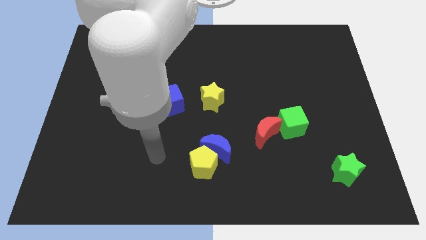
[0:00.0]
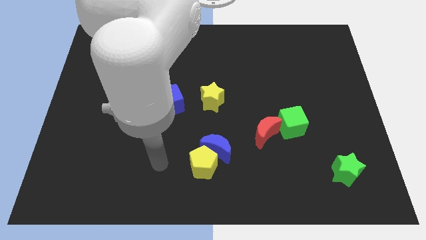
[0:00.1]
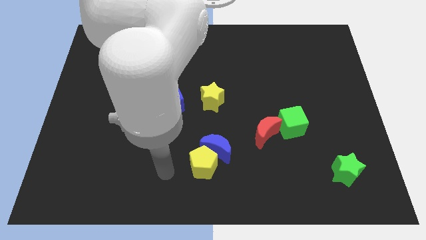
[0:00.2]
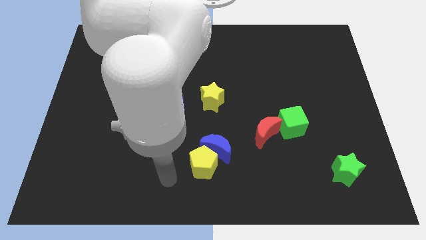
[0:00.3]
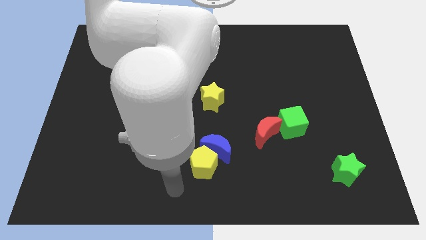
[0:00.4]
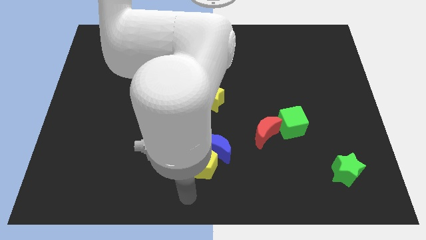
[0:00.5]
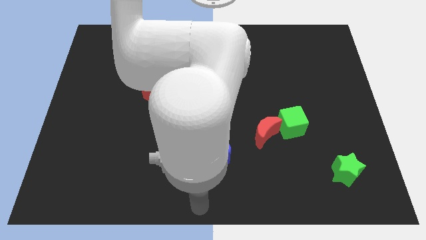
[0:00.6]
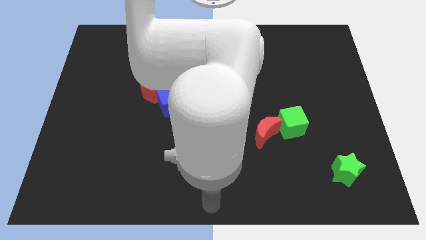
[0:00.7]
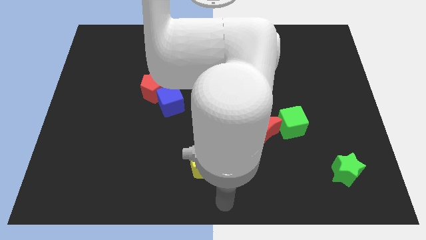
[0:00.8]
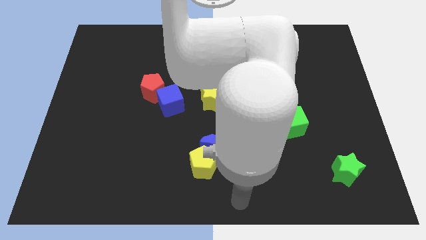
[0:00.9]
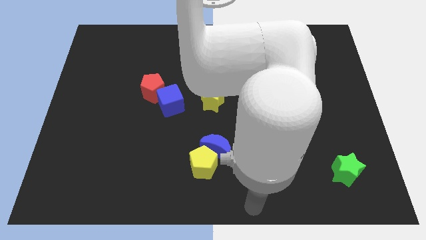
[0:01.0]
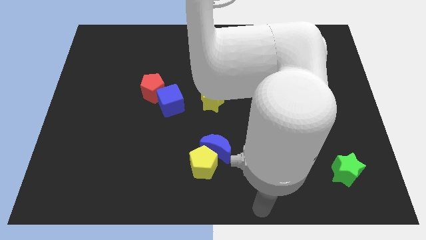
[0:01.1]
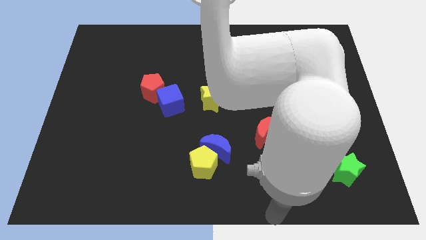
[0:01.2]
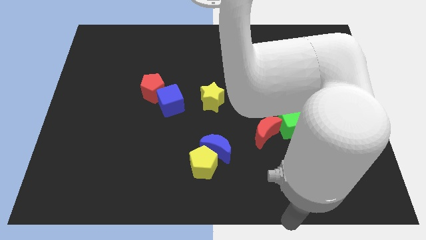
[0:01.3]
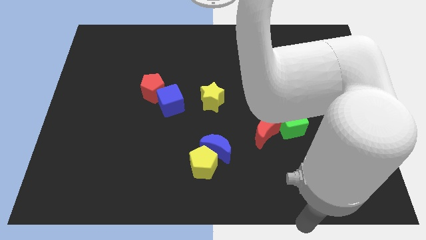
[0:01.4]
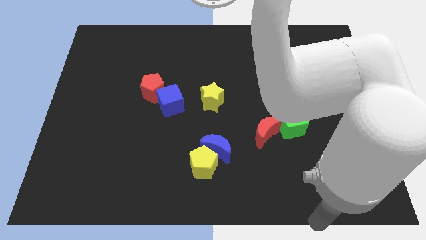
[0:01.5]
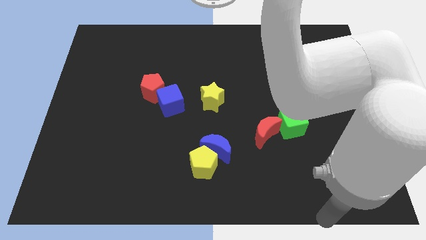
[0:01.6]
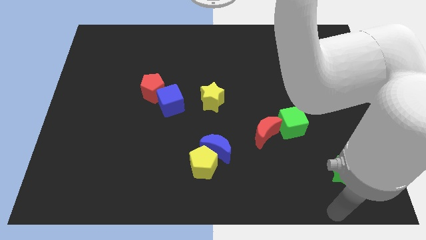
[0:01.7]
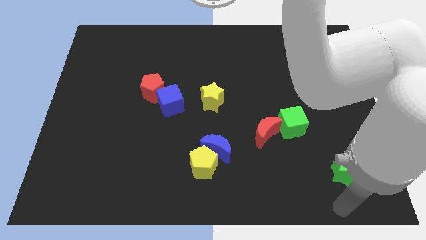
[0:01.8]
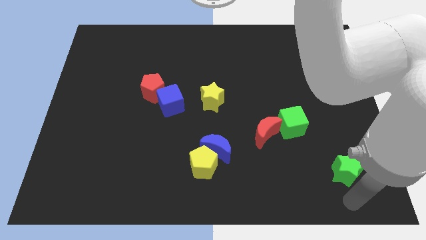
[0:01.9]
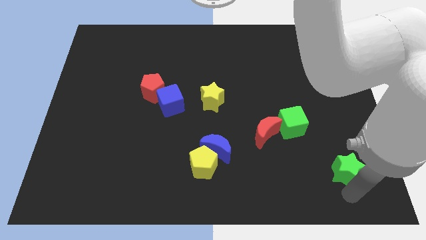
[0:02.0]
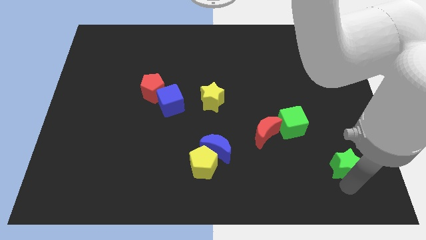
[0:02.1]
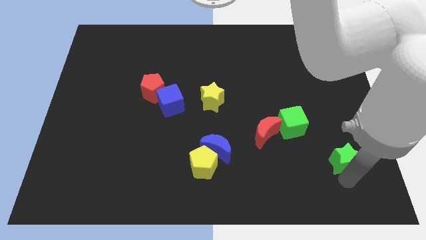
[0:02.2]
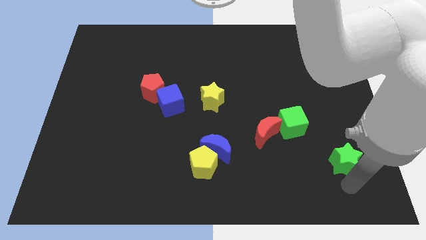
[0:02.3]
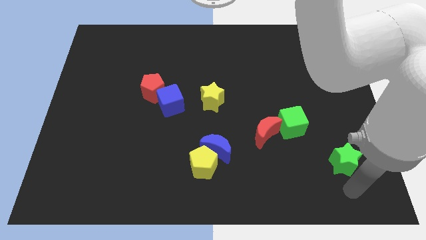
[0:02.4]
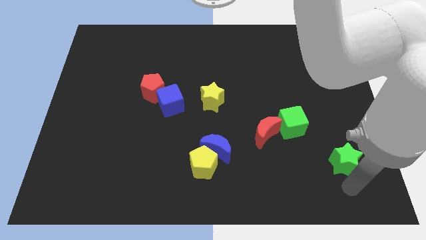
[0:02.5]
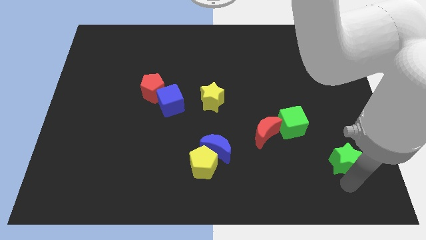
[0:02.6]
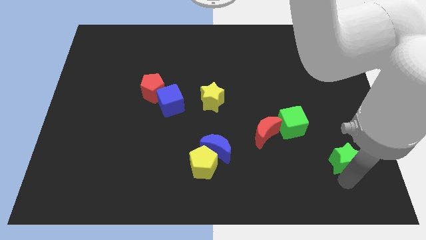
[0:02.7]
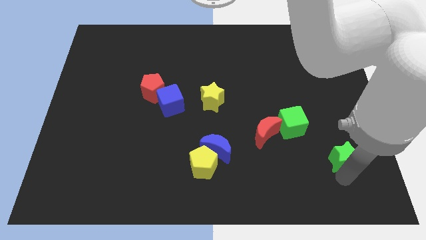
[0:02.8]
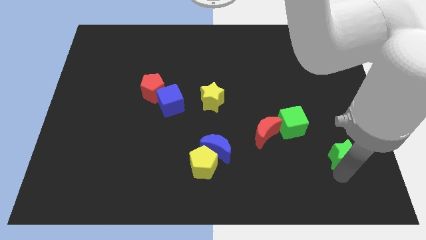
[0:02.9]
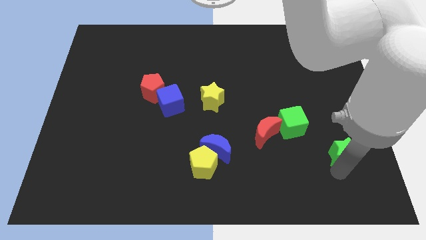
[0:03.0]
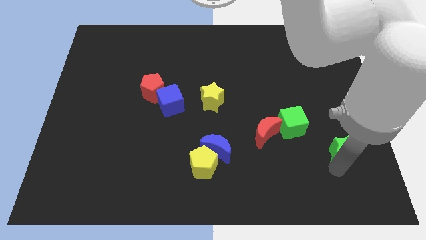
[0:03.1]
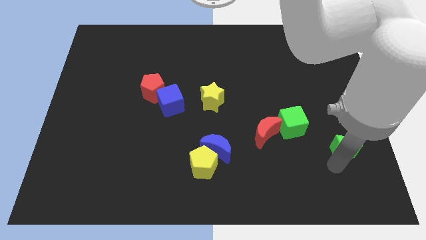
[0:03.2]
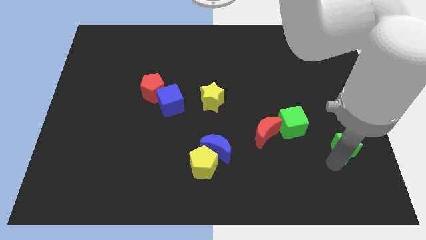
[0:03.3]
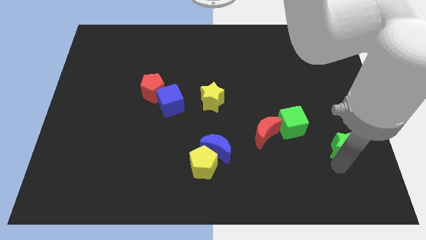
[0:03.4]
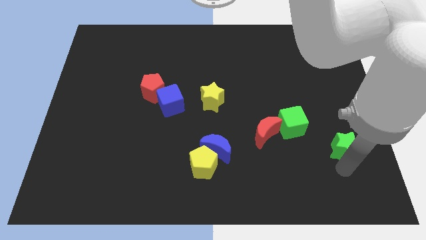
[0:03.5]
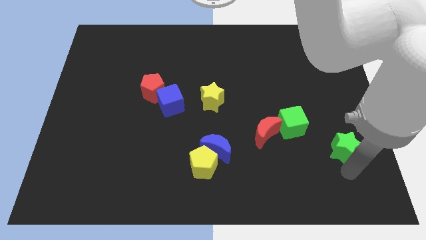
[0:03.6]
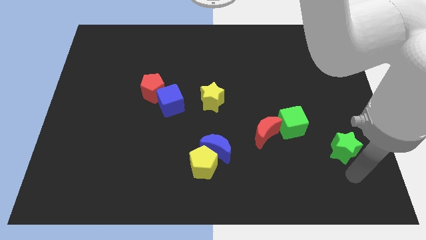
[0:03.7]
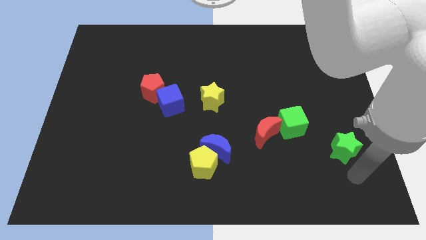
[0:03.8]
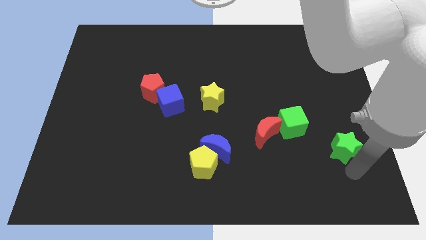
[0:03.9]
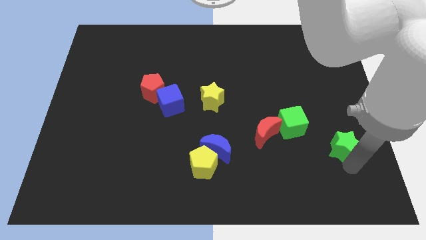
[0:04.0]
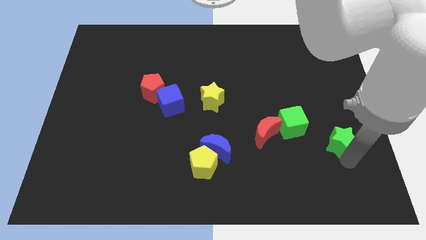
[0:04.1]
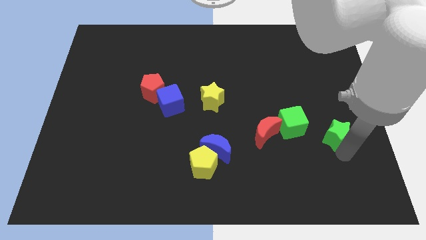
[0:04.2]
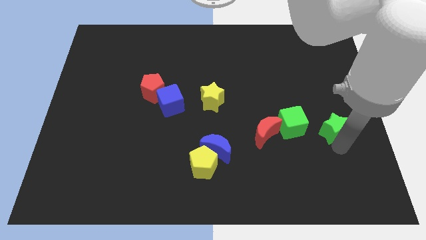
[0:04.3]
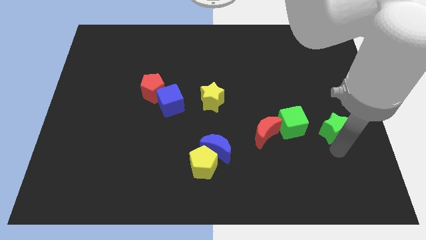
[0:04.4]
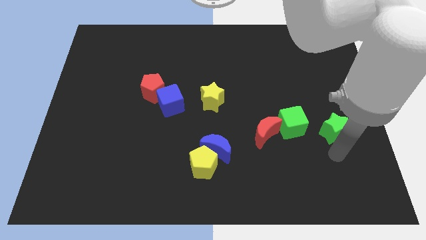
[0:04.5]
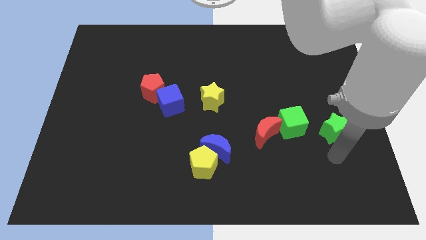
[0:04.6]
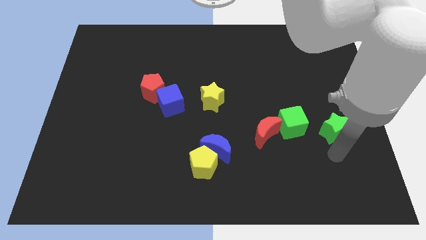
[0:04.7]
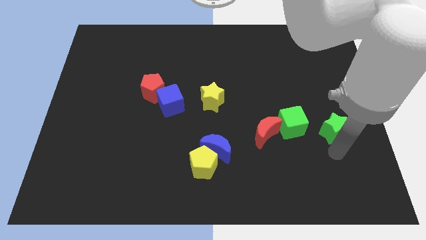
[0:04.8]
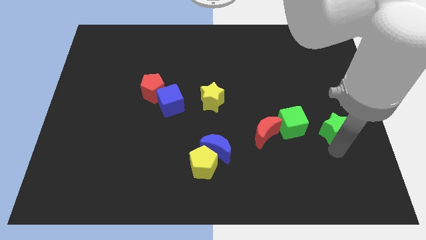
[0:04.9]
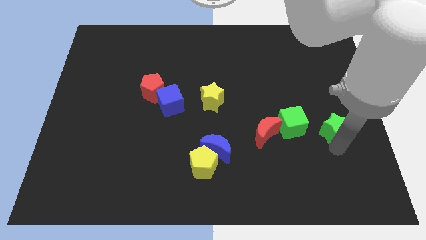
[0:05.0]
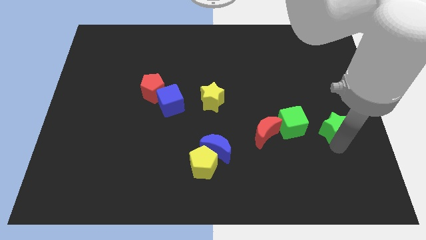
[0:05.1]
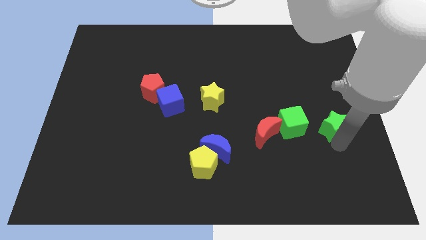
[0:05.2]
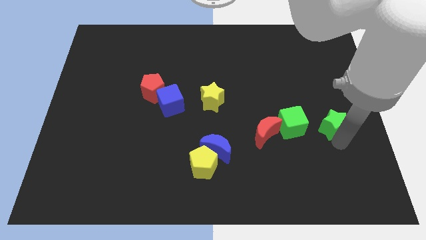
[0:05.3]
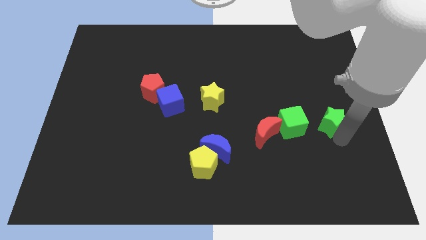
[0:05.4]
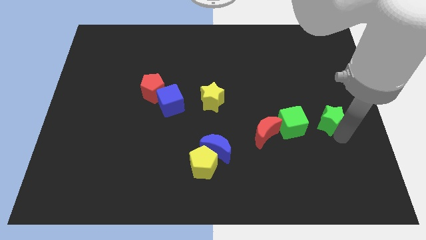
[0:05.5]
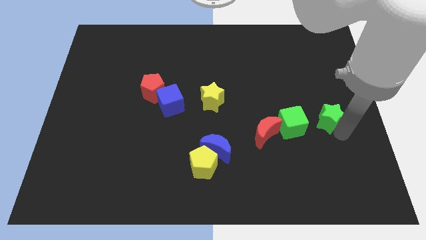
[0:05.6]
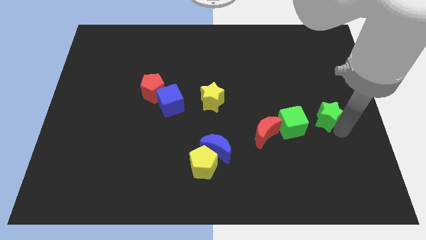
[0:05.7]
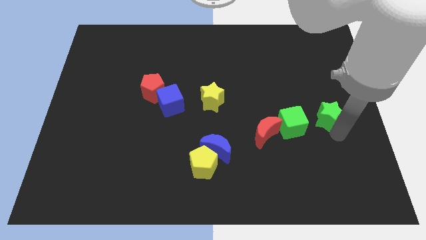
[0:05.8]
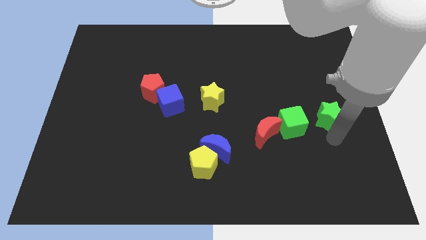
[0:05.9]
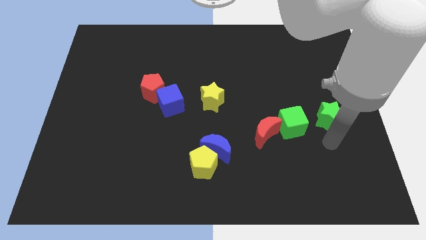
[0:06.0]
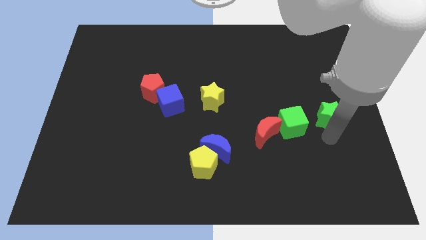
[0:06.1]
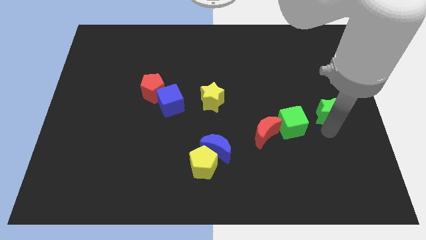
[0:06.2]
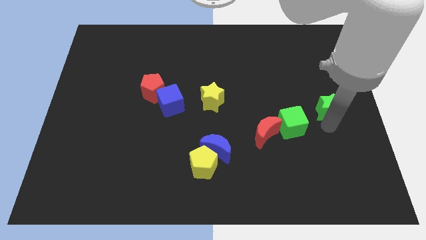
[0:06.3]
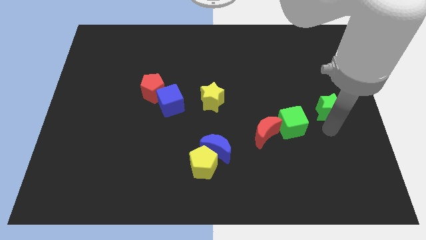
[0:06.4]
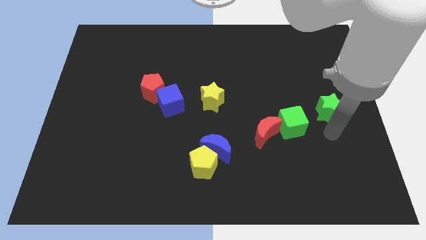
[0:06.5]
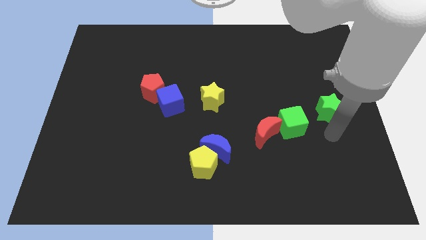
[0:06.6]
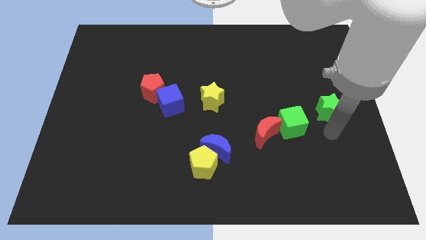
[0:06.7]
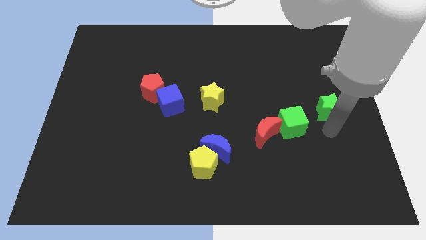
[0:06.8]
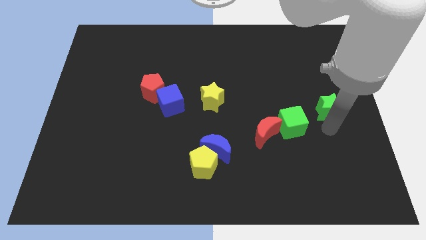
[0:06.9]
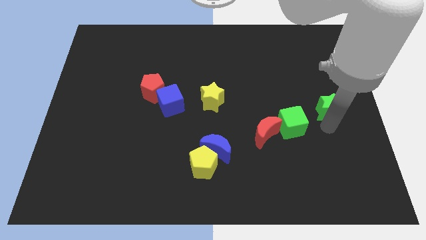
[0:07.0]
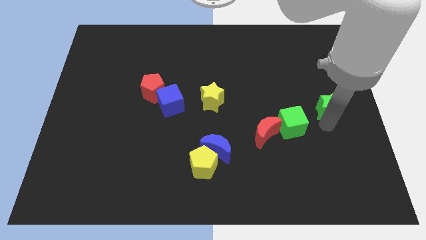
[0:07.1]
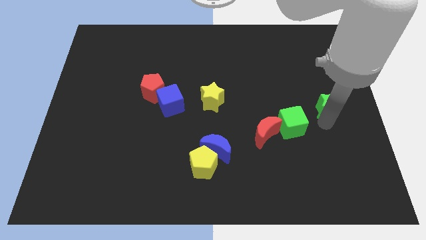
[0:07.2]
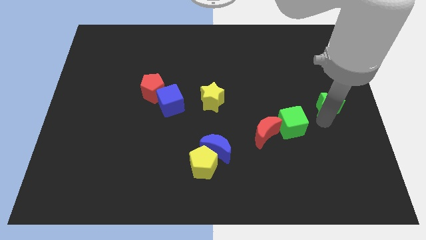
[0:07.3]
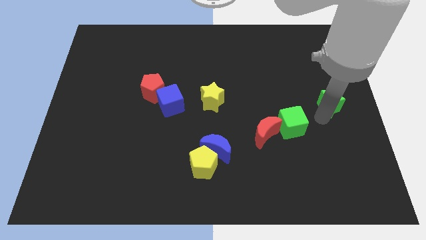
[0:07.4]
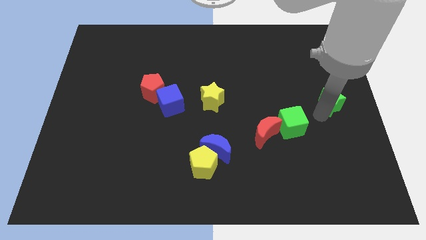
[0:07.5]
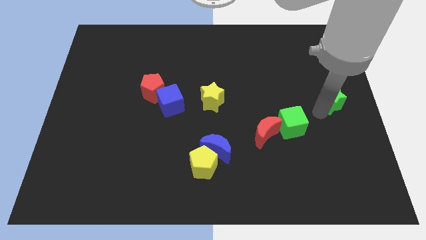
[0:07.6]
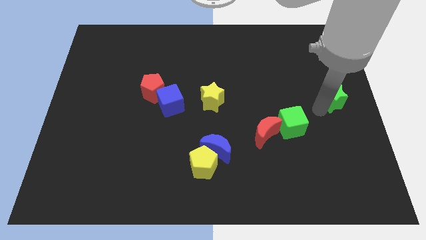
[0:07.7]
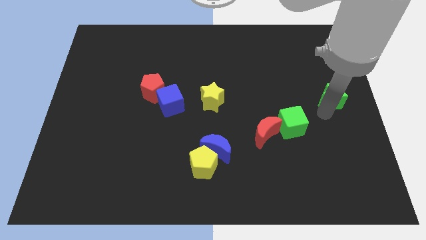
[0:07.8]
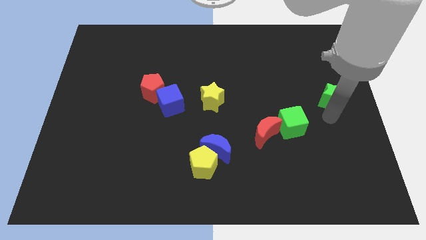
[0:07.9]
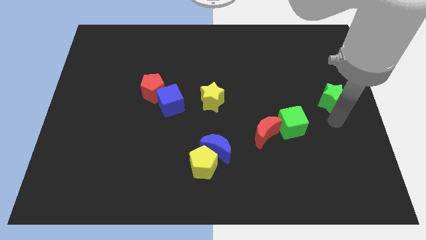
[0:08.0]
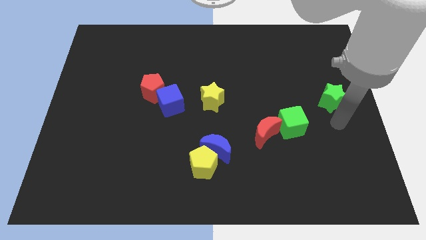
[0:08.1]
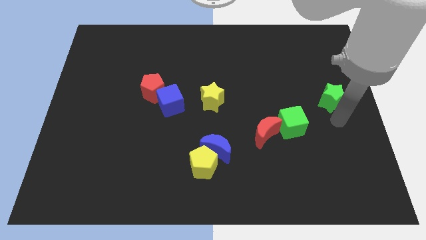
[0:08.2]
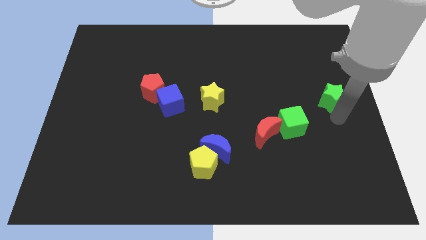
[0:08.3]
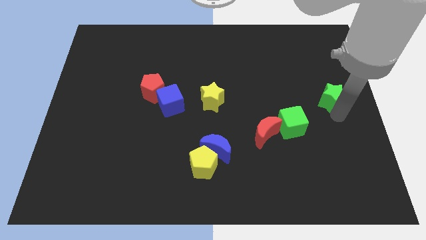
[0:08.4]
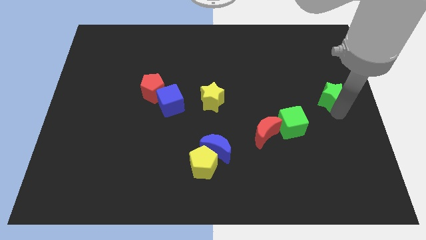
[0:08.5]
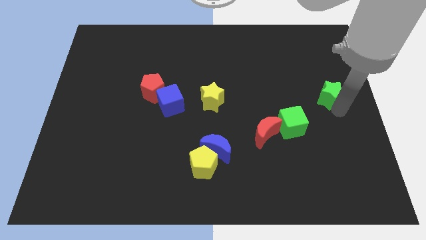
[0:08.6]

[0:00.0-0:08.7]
push the green star upwards
